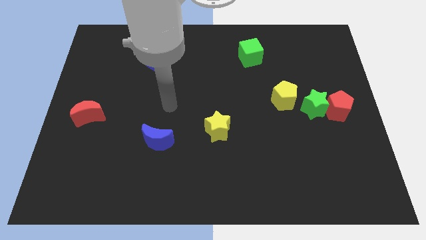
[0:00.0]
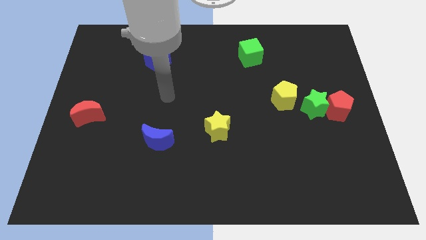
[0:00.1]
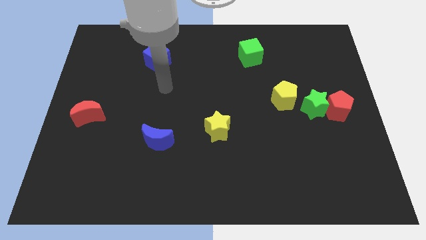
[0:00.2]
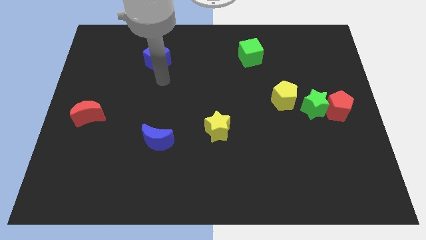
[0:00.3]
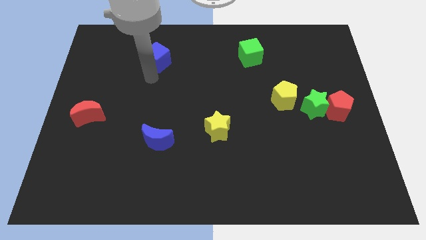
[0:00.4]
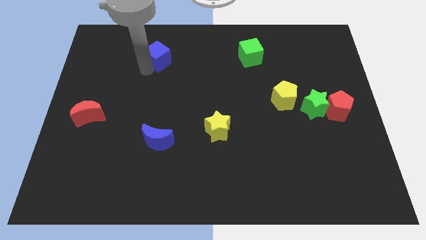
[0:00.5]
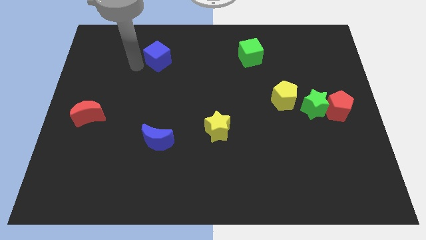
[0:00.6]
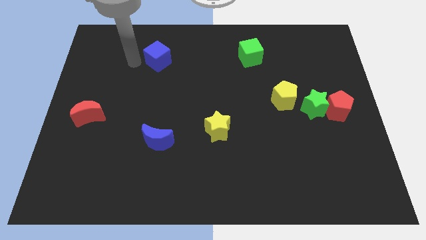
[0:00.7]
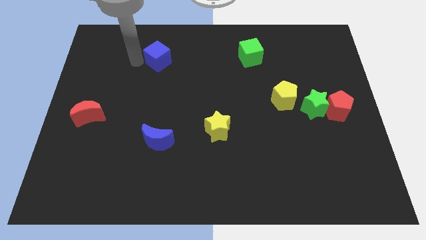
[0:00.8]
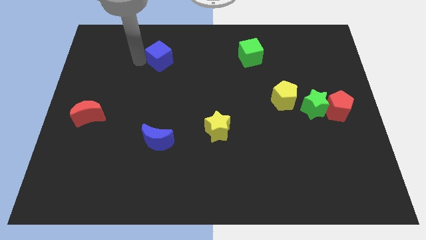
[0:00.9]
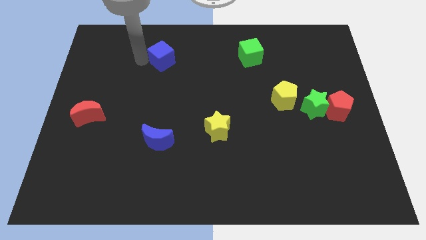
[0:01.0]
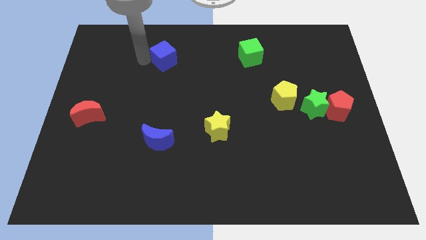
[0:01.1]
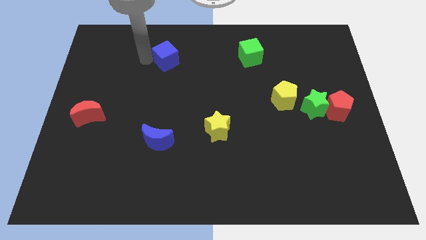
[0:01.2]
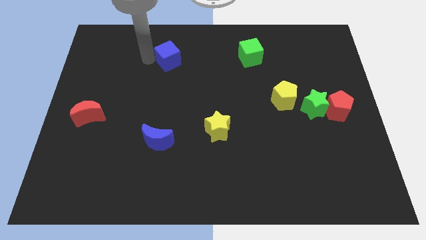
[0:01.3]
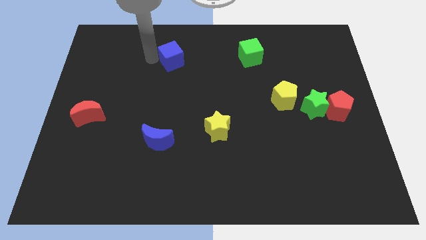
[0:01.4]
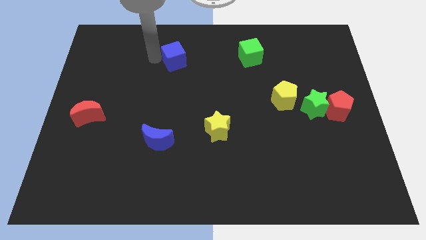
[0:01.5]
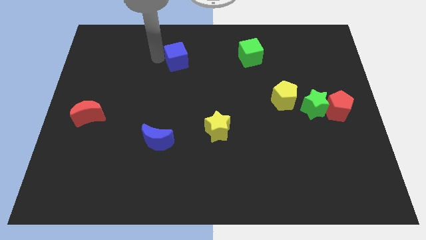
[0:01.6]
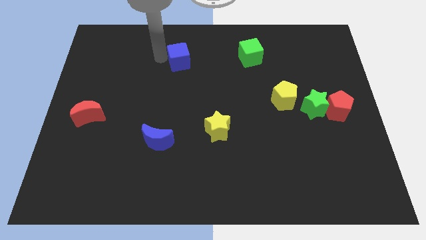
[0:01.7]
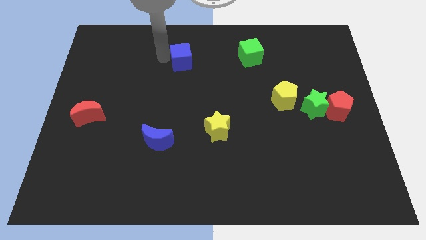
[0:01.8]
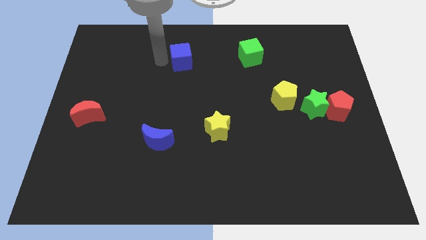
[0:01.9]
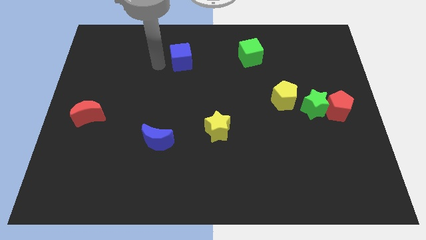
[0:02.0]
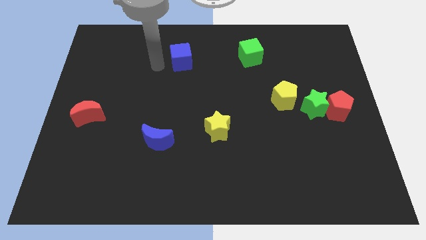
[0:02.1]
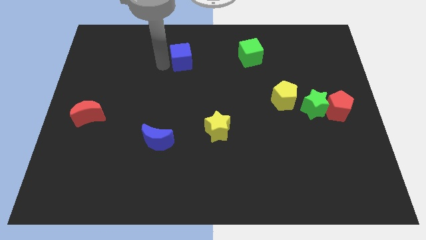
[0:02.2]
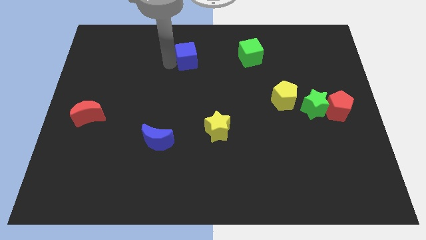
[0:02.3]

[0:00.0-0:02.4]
slightly move the blue cube to the right

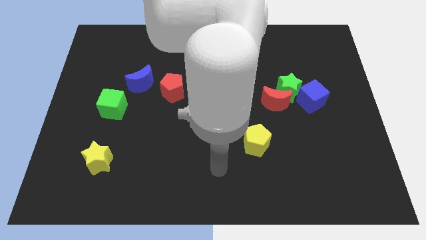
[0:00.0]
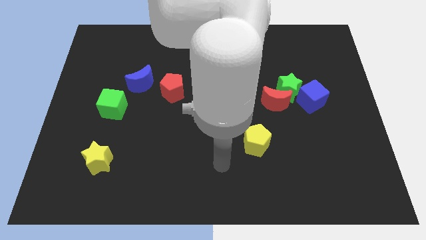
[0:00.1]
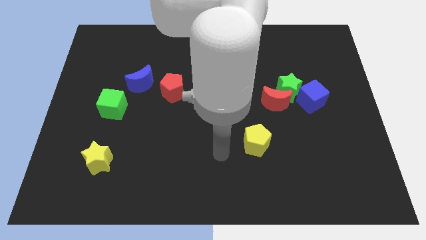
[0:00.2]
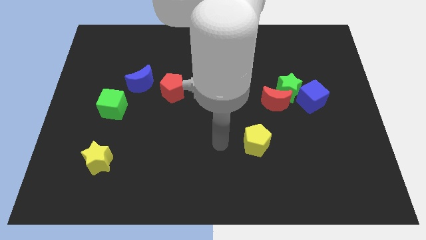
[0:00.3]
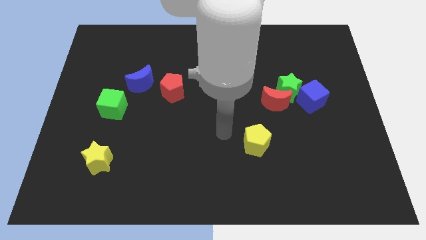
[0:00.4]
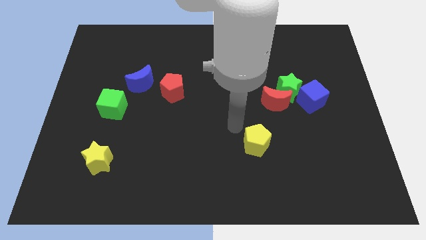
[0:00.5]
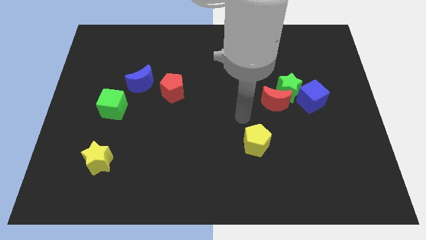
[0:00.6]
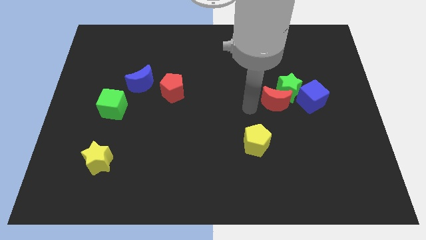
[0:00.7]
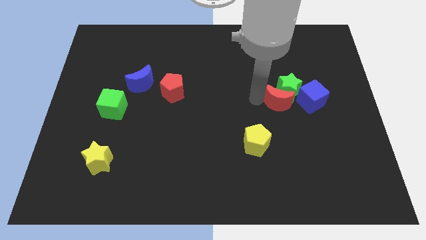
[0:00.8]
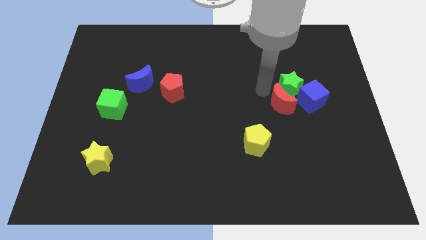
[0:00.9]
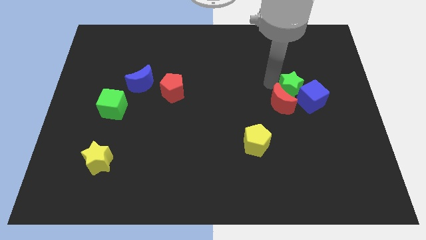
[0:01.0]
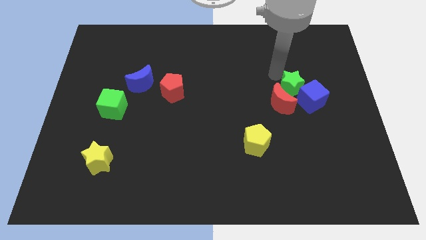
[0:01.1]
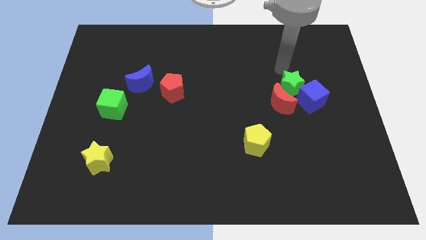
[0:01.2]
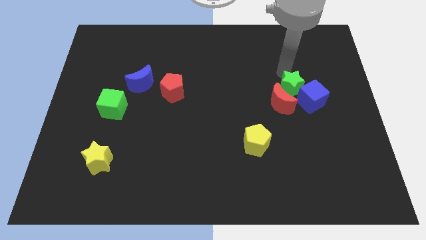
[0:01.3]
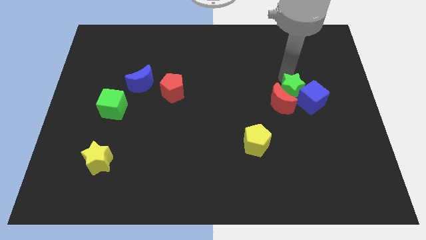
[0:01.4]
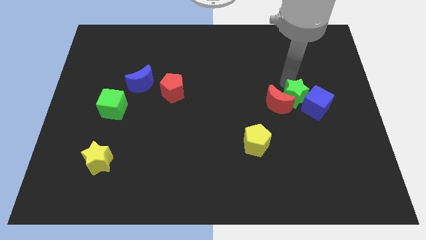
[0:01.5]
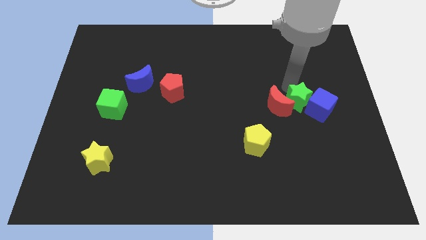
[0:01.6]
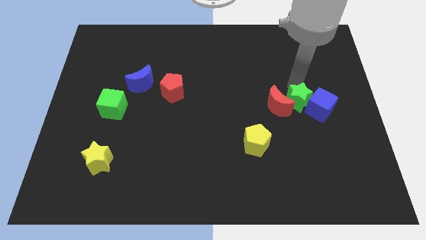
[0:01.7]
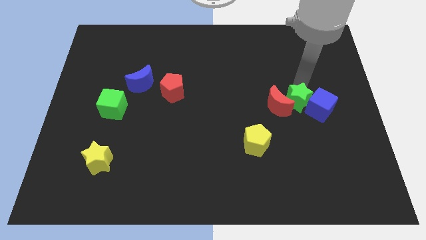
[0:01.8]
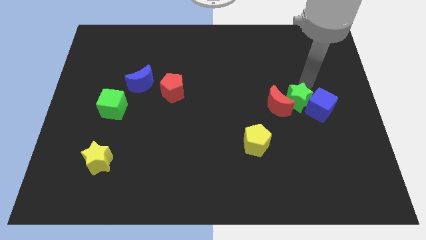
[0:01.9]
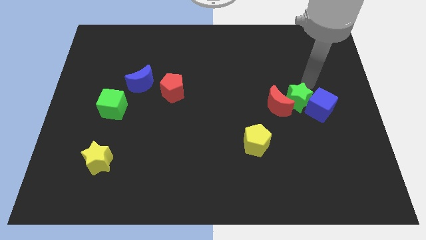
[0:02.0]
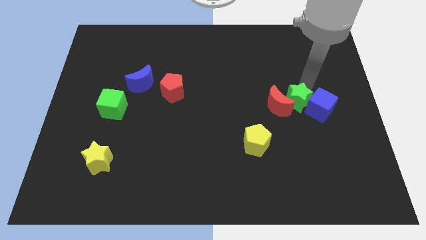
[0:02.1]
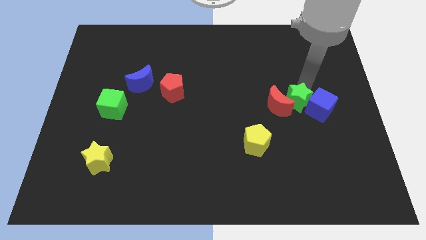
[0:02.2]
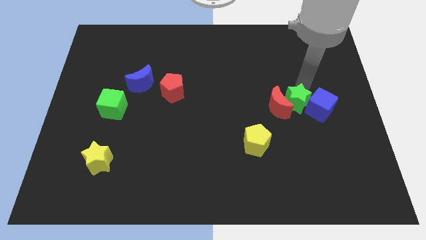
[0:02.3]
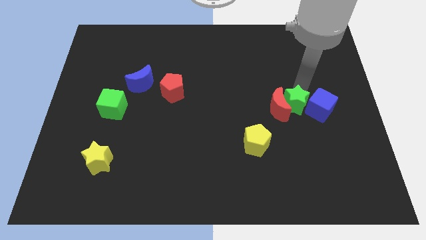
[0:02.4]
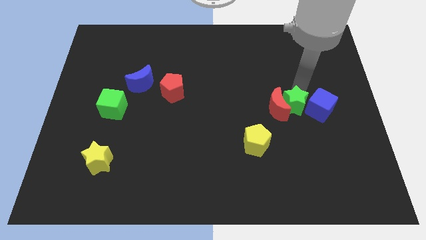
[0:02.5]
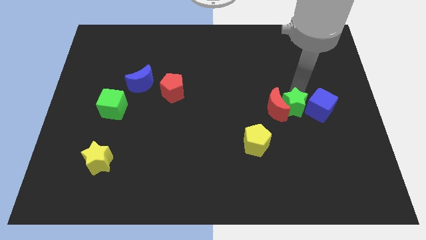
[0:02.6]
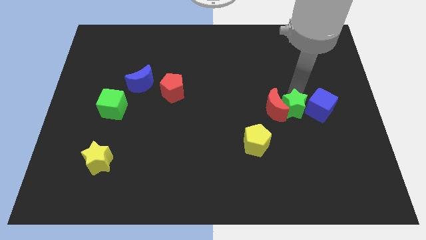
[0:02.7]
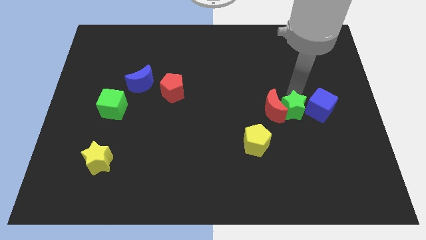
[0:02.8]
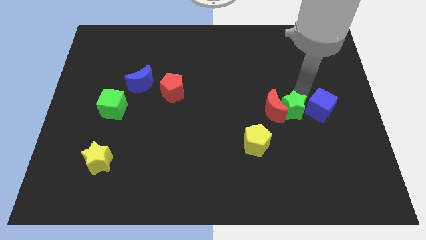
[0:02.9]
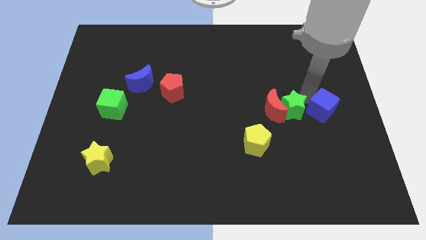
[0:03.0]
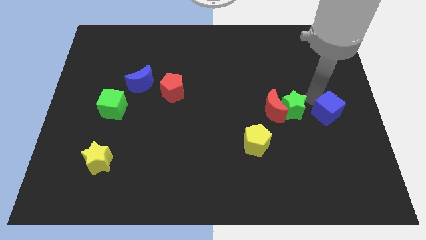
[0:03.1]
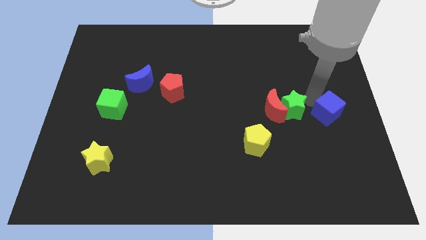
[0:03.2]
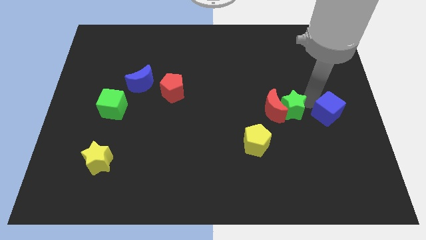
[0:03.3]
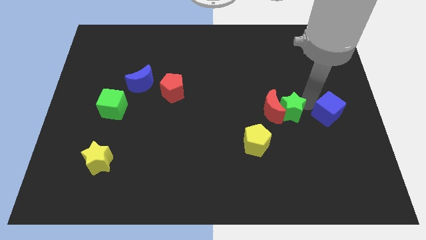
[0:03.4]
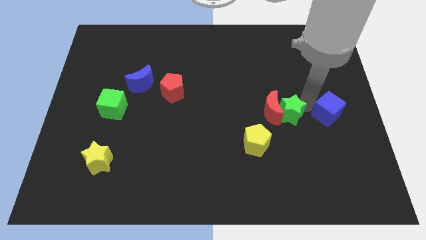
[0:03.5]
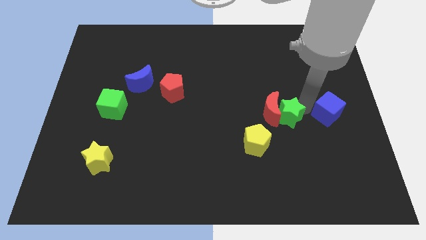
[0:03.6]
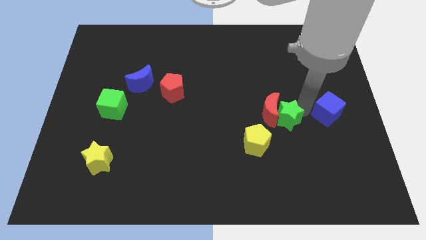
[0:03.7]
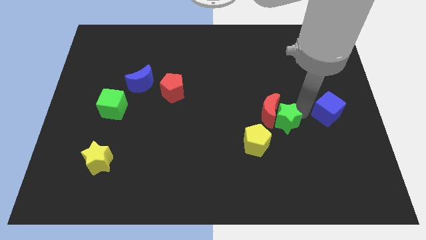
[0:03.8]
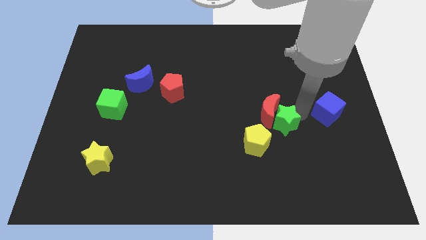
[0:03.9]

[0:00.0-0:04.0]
push the green star a little down and left diagonally

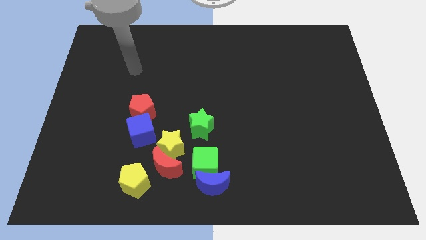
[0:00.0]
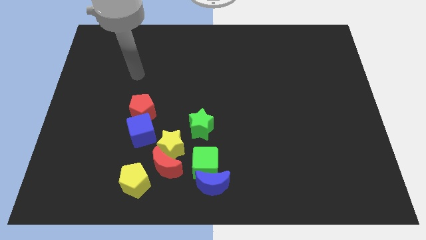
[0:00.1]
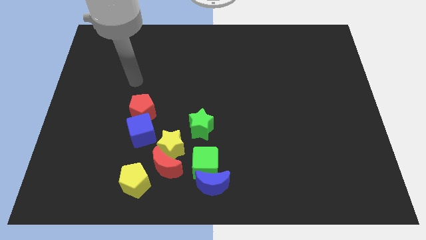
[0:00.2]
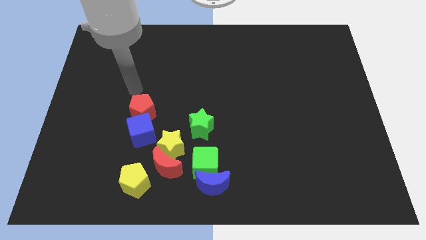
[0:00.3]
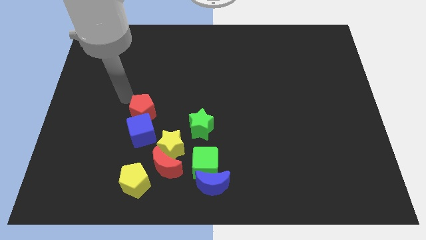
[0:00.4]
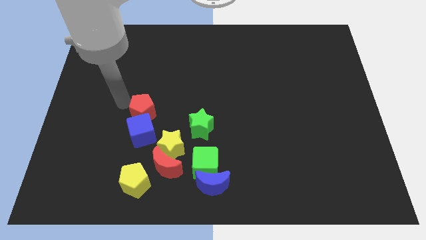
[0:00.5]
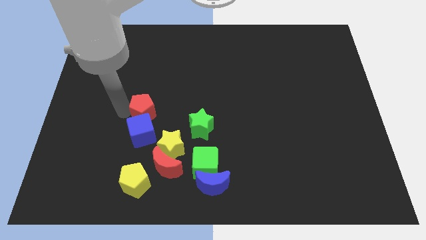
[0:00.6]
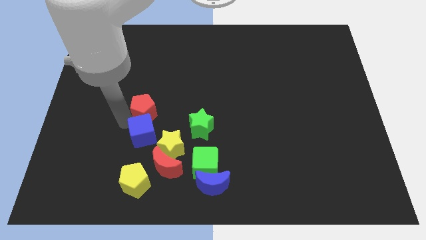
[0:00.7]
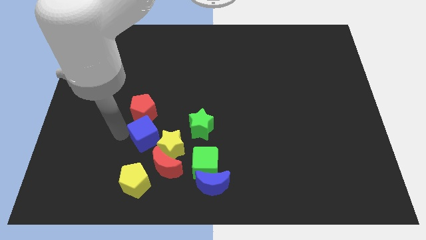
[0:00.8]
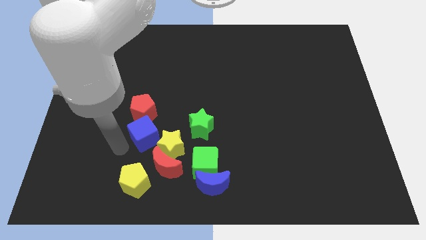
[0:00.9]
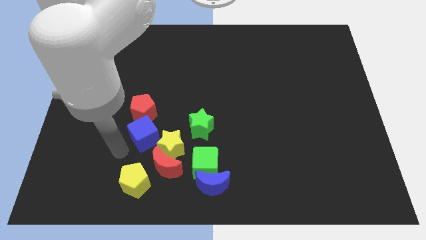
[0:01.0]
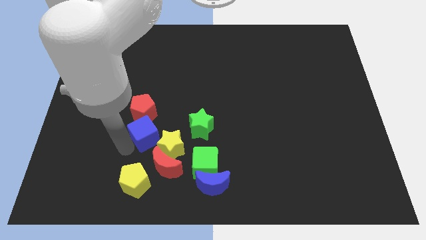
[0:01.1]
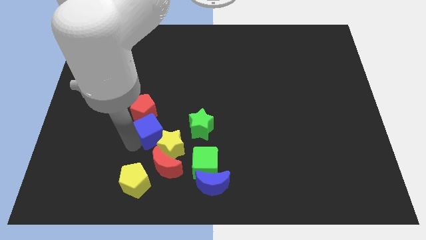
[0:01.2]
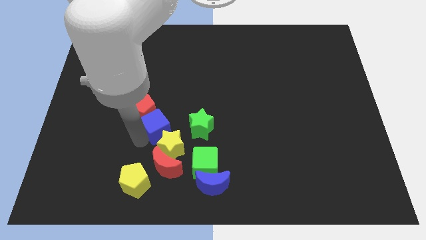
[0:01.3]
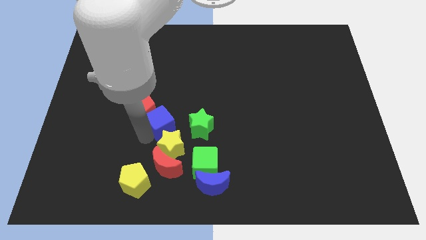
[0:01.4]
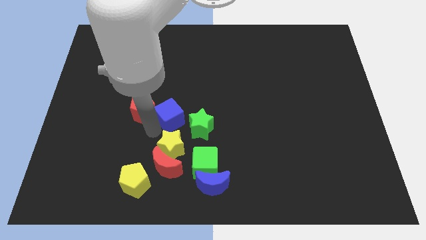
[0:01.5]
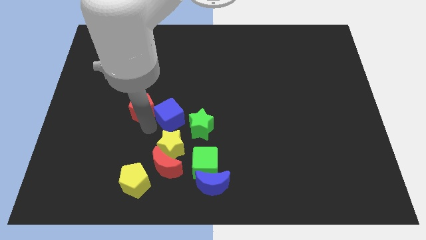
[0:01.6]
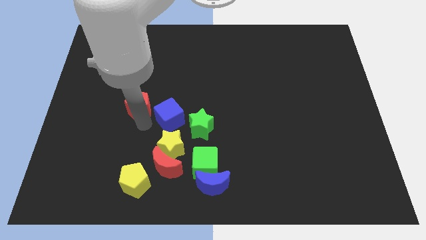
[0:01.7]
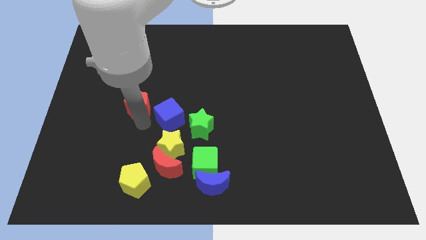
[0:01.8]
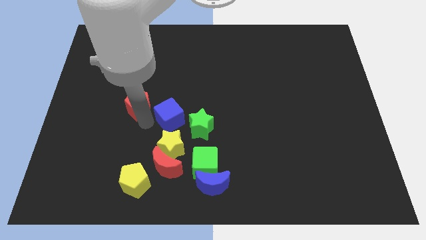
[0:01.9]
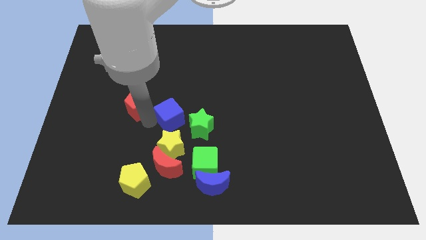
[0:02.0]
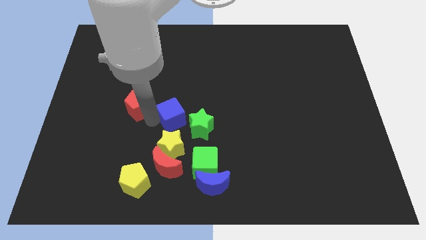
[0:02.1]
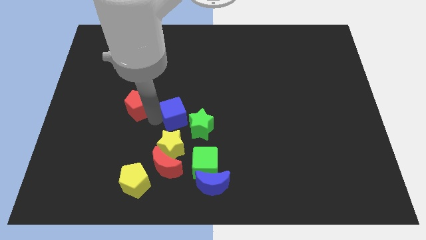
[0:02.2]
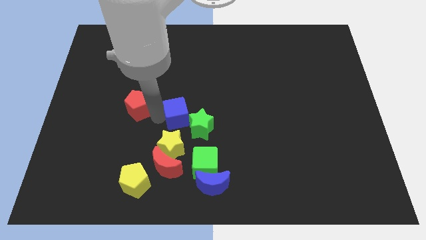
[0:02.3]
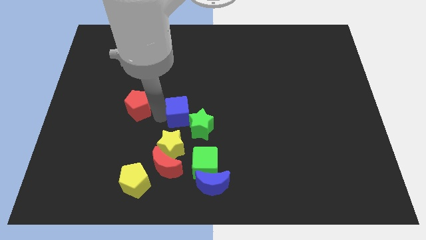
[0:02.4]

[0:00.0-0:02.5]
slightly push the blue cube right
